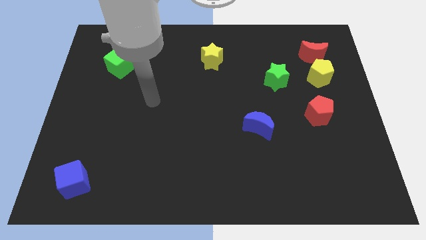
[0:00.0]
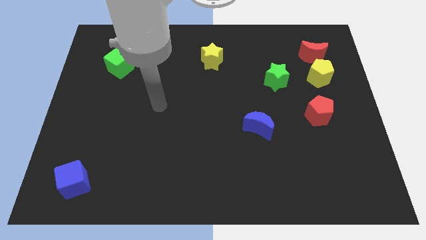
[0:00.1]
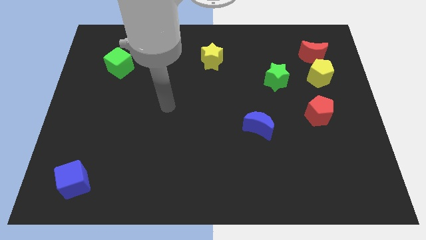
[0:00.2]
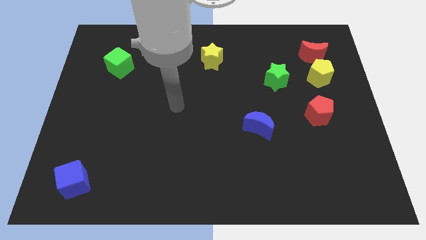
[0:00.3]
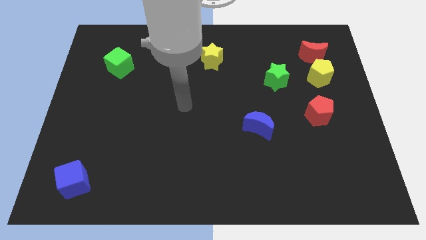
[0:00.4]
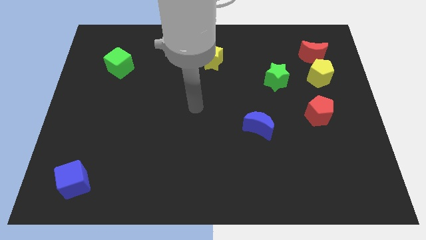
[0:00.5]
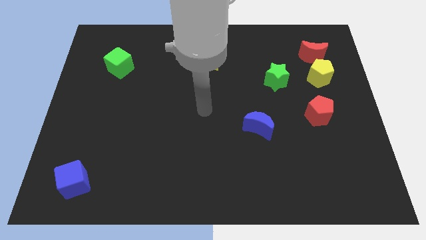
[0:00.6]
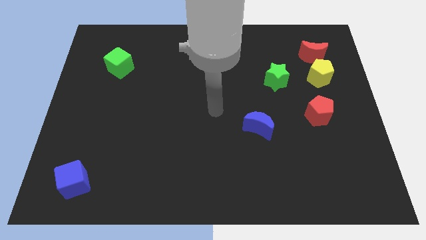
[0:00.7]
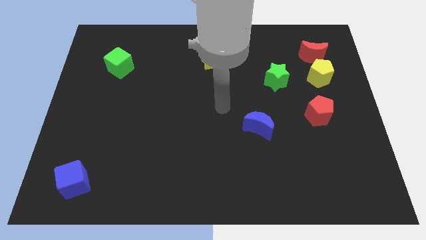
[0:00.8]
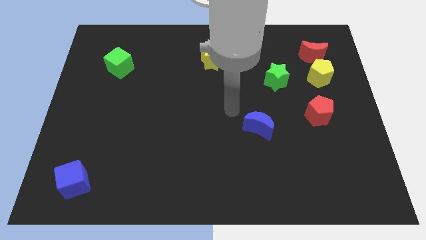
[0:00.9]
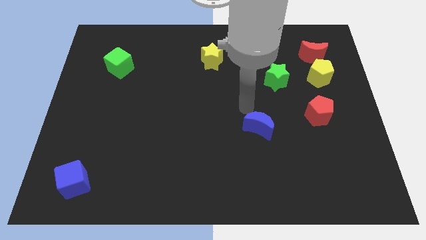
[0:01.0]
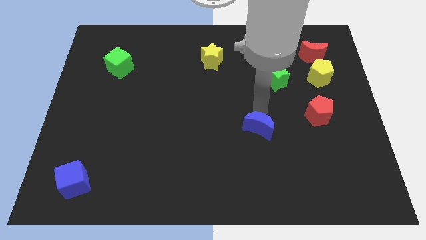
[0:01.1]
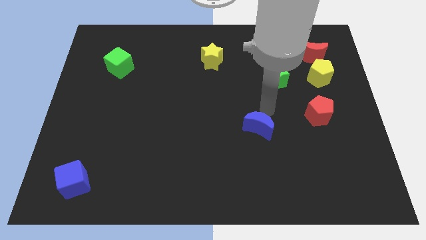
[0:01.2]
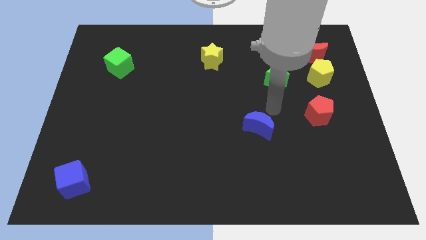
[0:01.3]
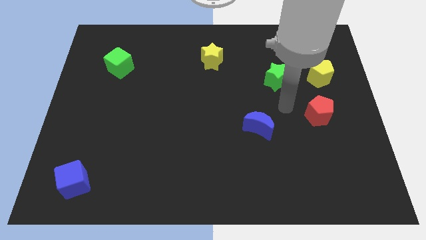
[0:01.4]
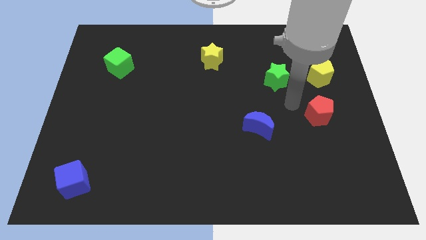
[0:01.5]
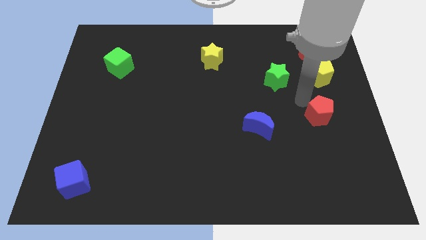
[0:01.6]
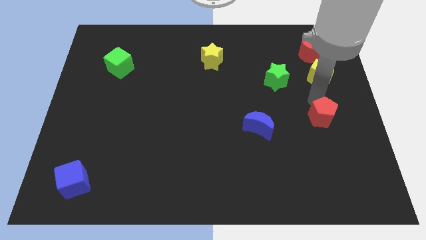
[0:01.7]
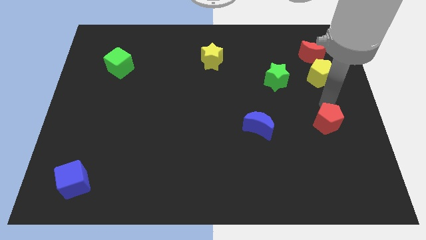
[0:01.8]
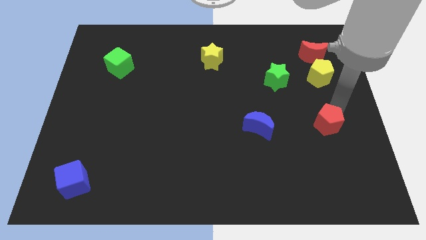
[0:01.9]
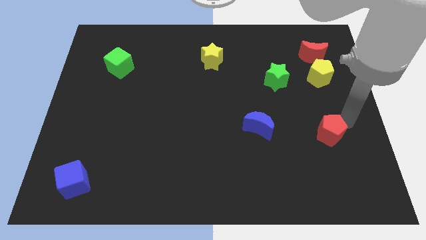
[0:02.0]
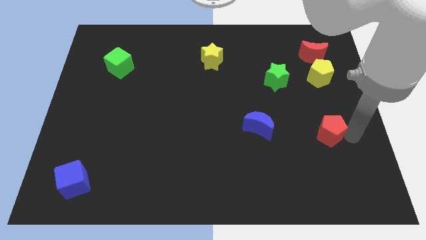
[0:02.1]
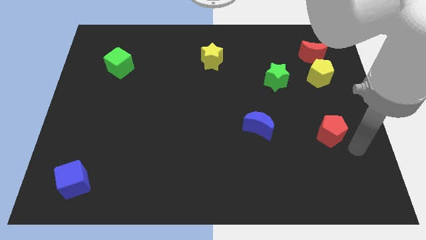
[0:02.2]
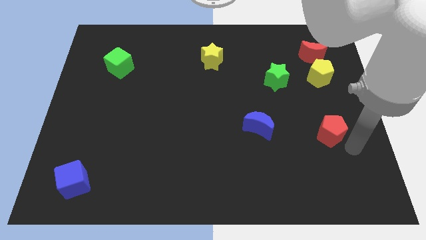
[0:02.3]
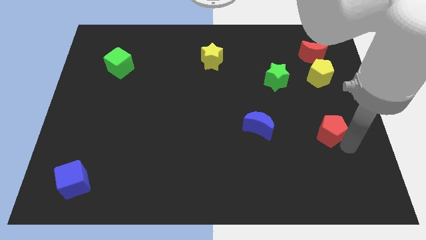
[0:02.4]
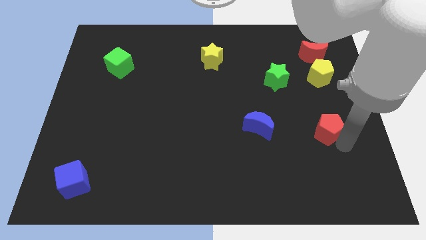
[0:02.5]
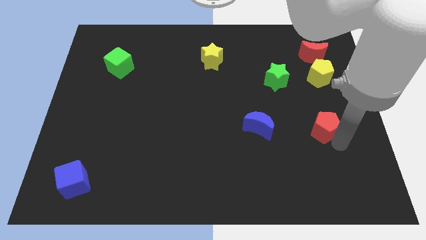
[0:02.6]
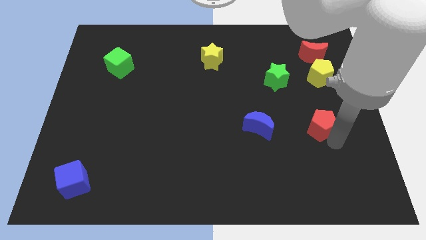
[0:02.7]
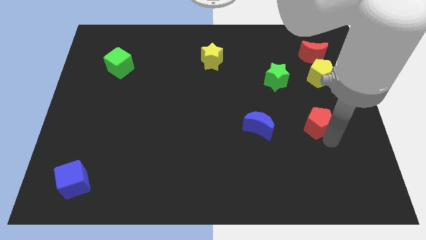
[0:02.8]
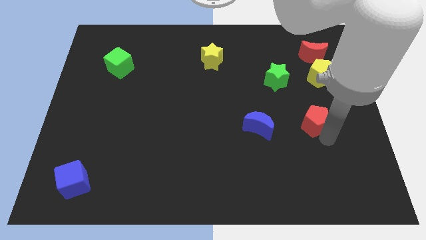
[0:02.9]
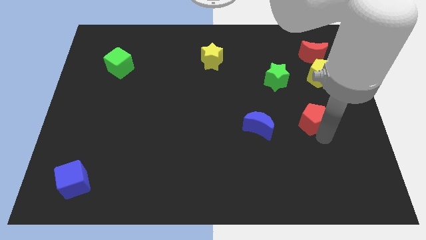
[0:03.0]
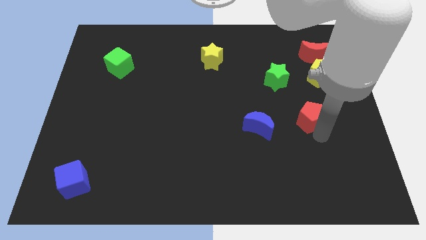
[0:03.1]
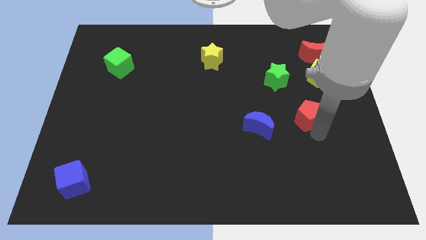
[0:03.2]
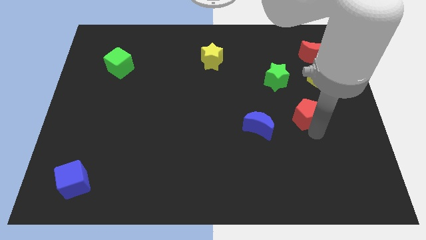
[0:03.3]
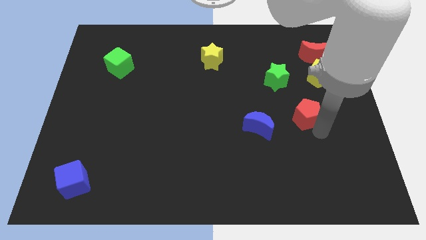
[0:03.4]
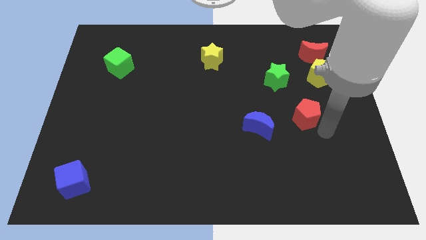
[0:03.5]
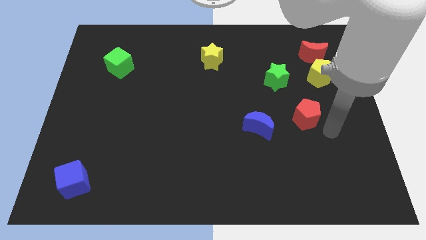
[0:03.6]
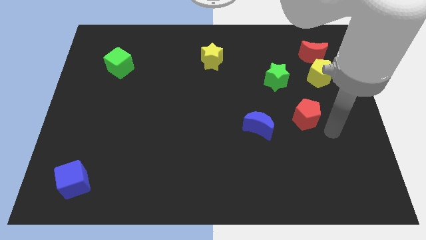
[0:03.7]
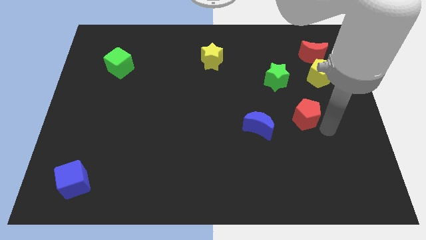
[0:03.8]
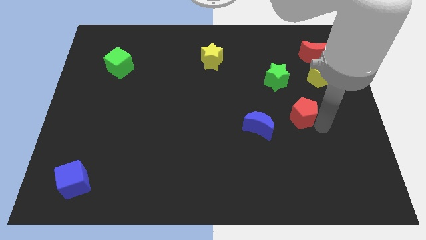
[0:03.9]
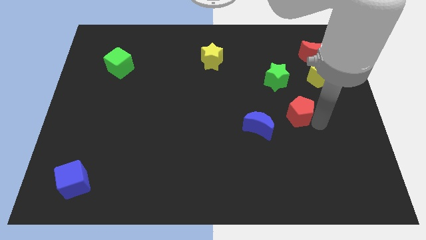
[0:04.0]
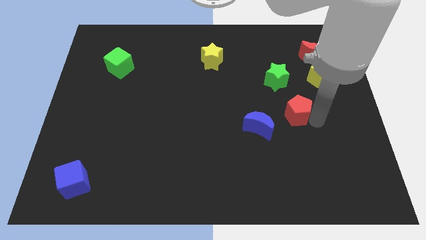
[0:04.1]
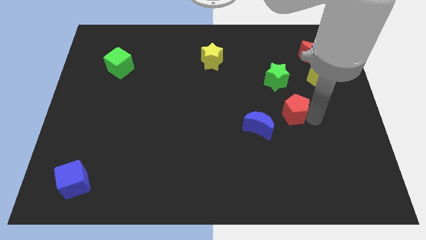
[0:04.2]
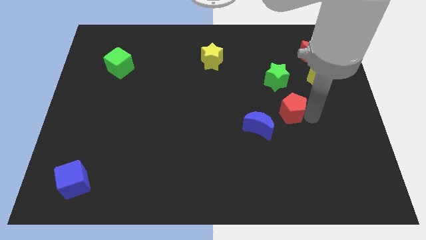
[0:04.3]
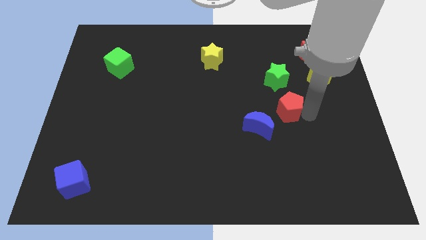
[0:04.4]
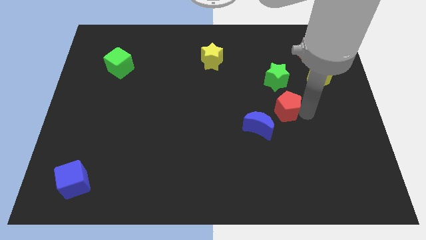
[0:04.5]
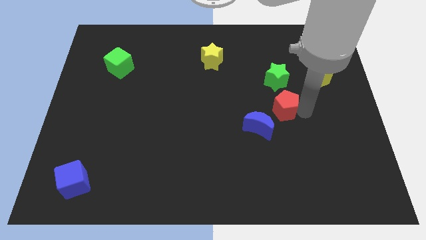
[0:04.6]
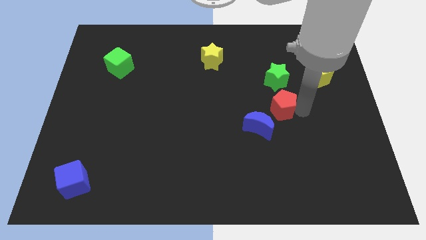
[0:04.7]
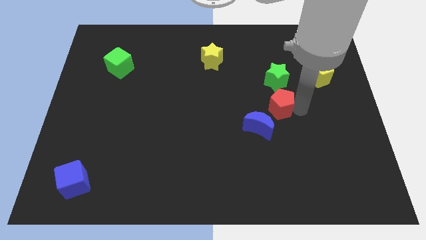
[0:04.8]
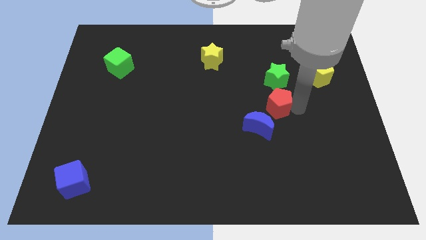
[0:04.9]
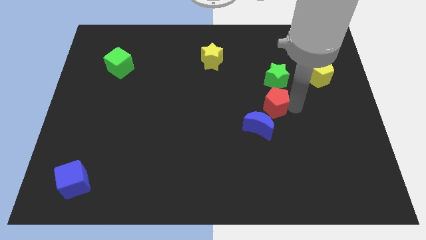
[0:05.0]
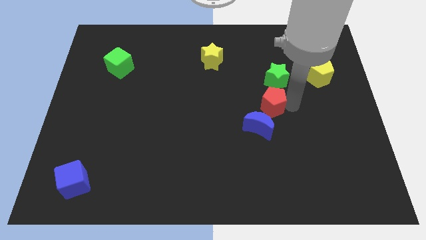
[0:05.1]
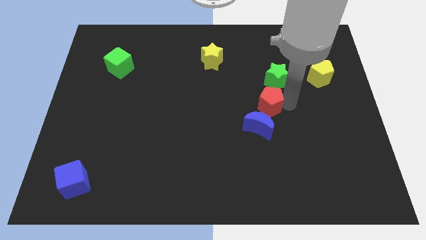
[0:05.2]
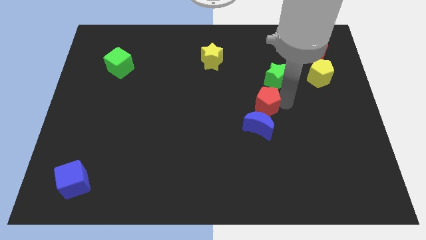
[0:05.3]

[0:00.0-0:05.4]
push the red pentagon to the center of the board
